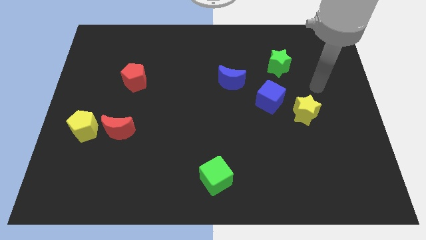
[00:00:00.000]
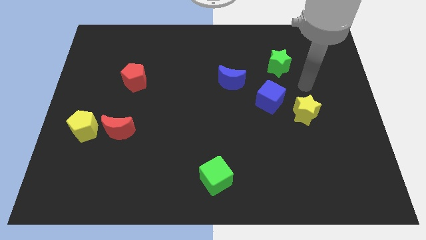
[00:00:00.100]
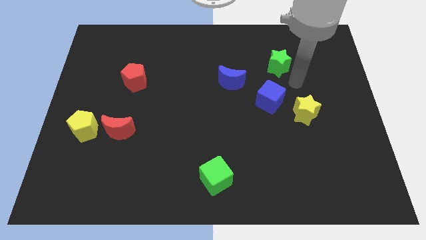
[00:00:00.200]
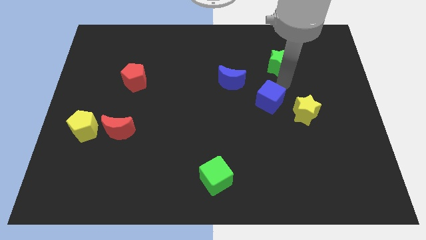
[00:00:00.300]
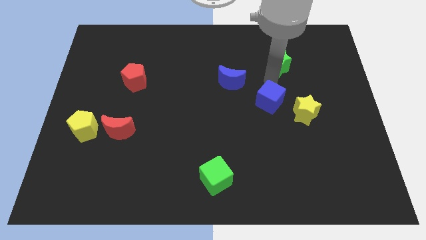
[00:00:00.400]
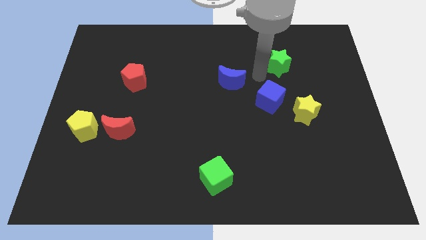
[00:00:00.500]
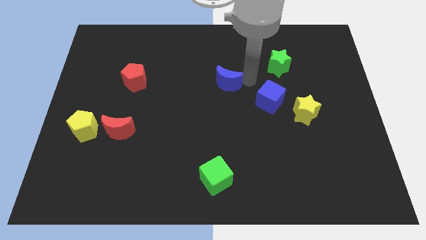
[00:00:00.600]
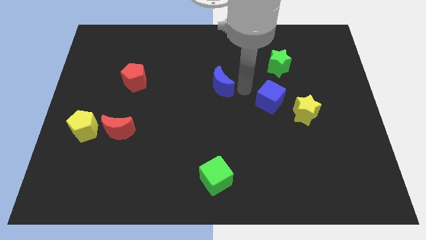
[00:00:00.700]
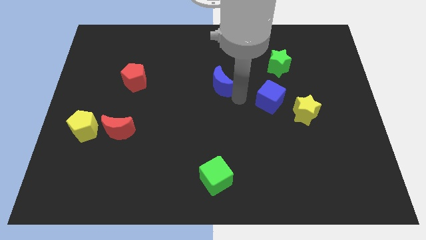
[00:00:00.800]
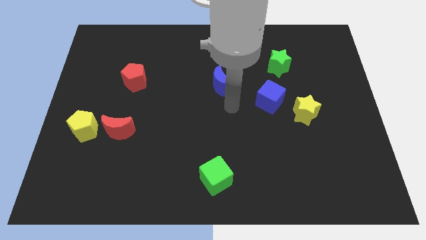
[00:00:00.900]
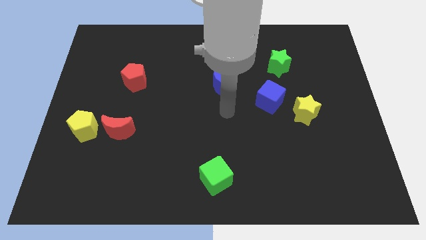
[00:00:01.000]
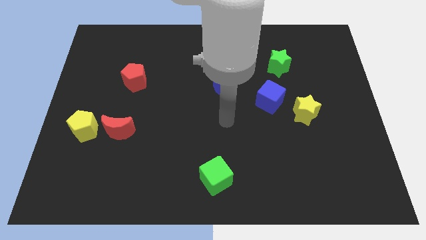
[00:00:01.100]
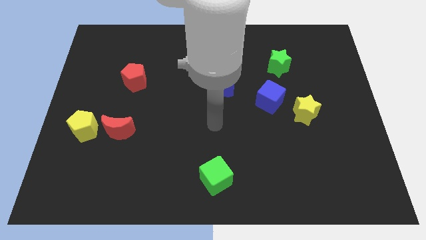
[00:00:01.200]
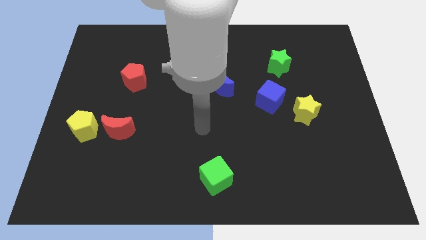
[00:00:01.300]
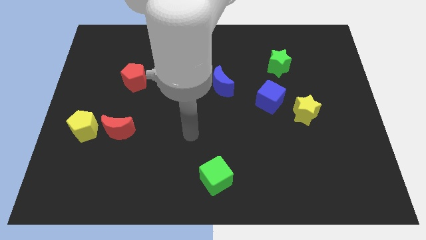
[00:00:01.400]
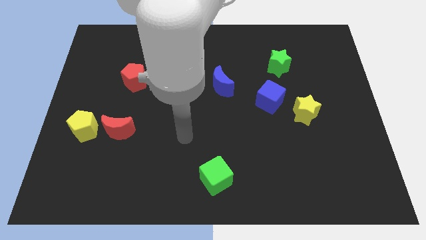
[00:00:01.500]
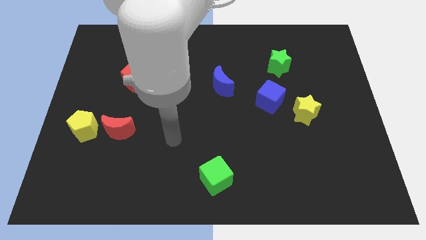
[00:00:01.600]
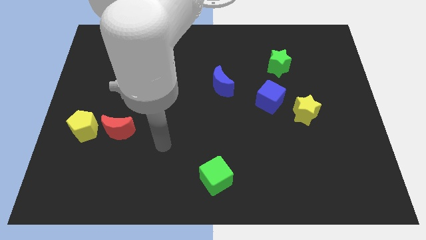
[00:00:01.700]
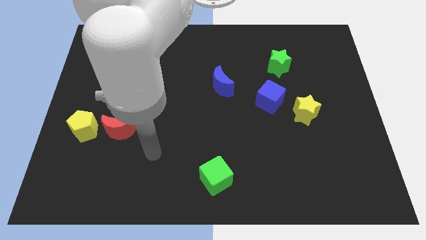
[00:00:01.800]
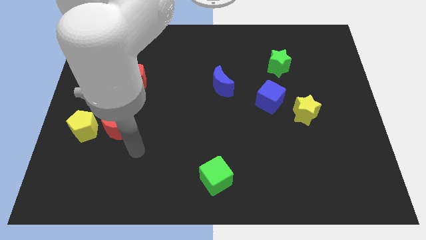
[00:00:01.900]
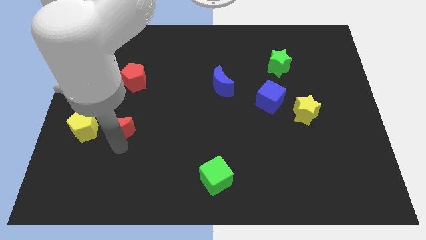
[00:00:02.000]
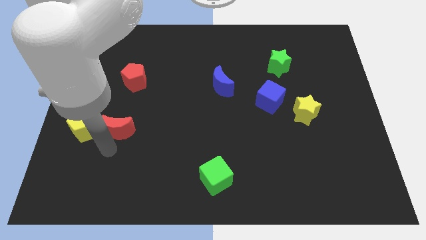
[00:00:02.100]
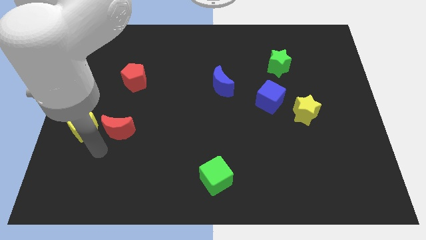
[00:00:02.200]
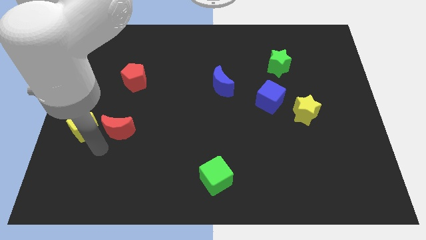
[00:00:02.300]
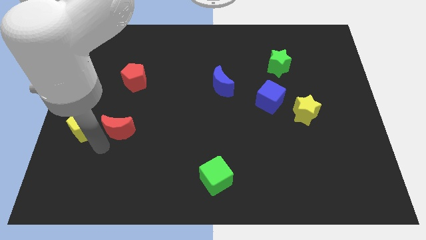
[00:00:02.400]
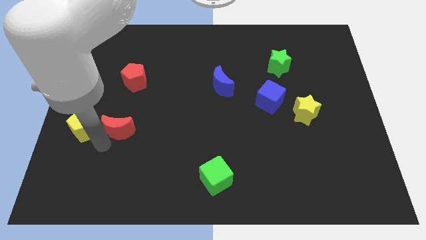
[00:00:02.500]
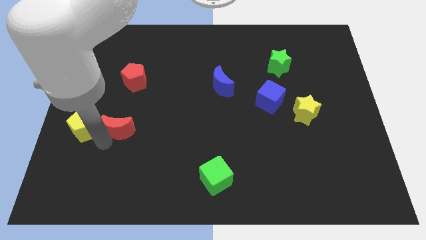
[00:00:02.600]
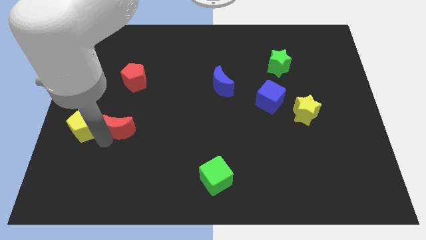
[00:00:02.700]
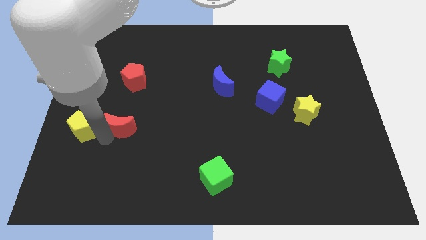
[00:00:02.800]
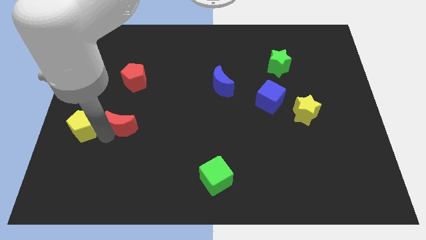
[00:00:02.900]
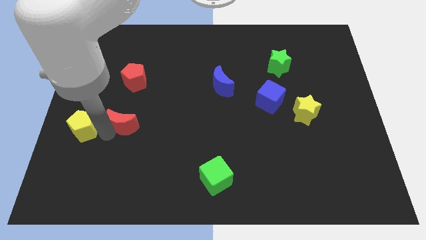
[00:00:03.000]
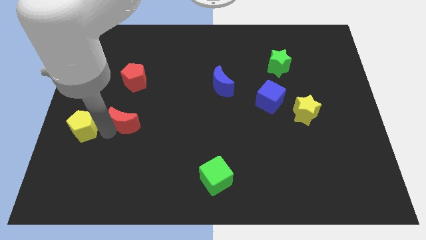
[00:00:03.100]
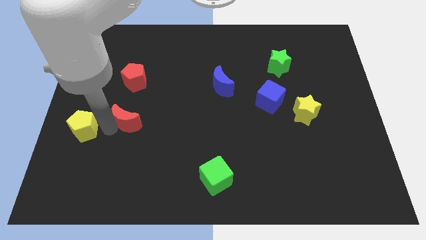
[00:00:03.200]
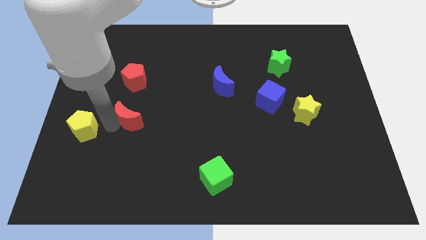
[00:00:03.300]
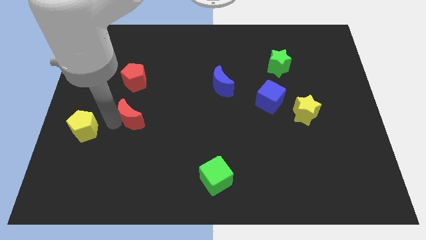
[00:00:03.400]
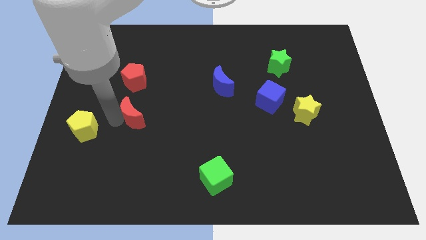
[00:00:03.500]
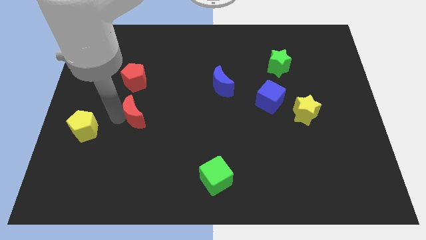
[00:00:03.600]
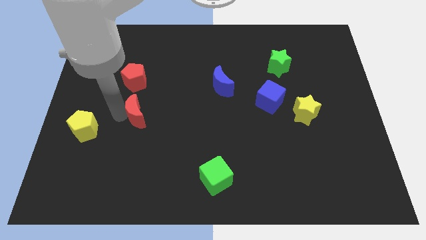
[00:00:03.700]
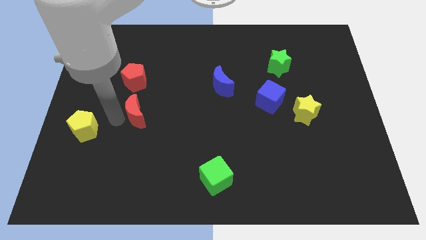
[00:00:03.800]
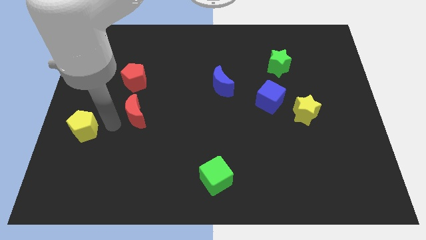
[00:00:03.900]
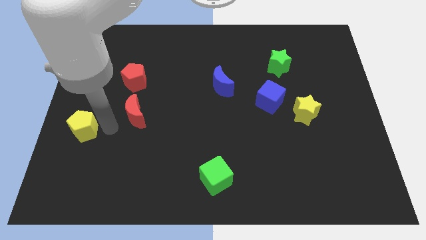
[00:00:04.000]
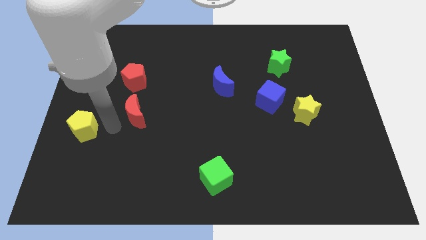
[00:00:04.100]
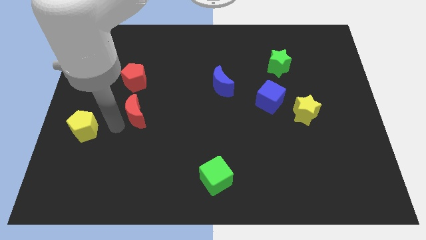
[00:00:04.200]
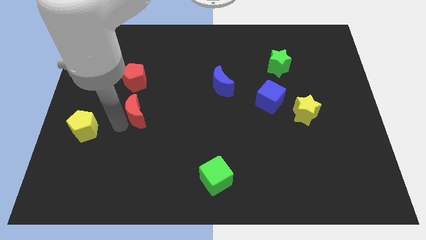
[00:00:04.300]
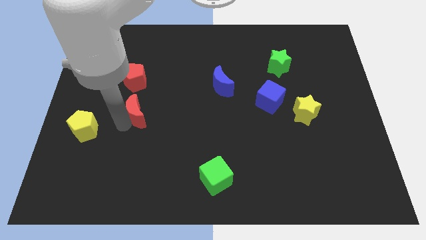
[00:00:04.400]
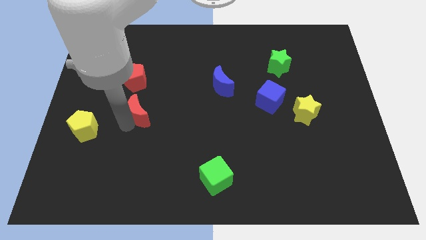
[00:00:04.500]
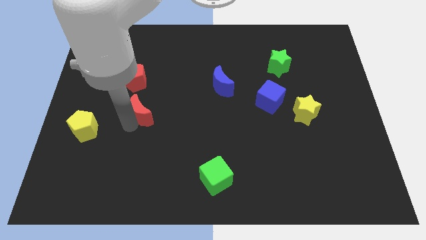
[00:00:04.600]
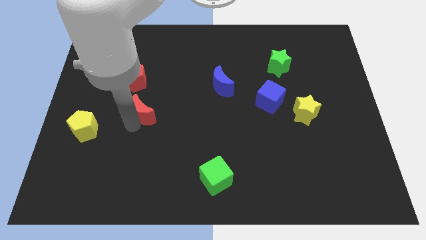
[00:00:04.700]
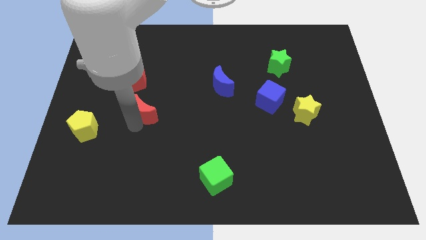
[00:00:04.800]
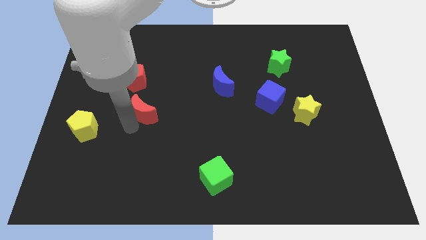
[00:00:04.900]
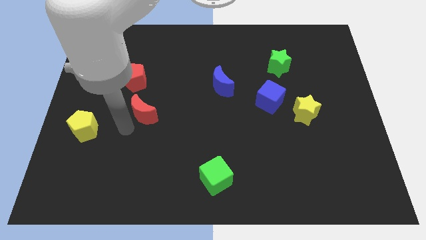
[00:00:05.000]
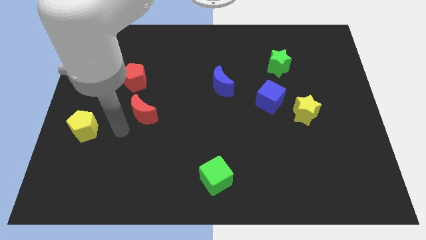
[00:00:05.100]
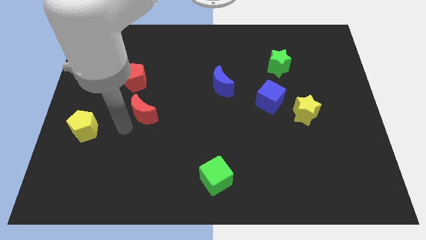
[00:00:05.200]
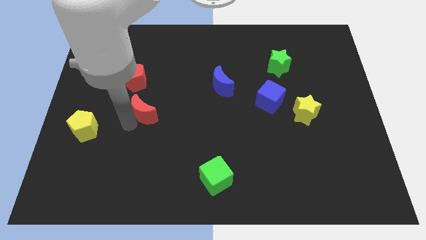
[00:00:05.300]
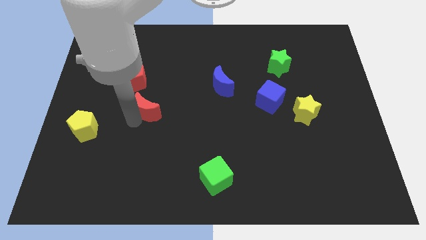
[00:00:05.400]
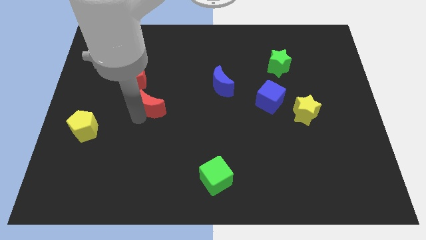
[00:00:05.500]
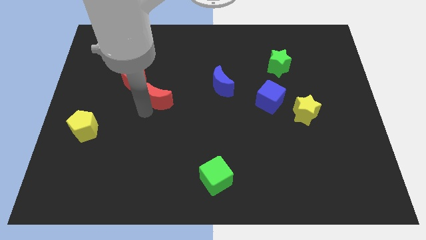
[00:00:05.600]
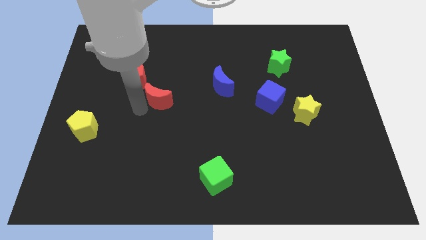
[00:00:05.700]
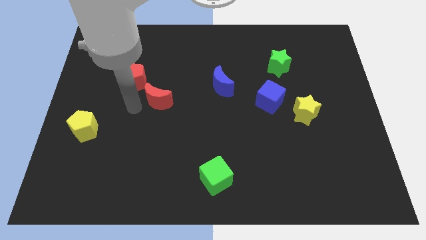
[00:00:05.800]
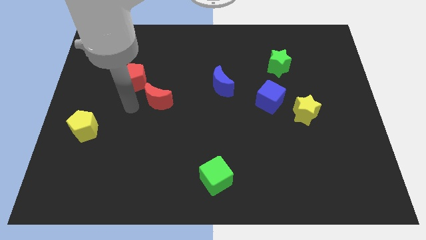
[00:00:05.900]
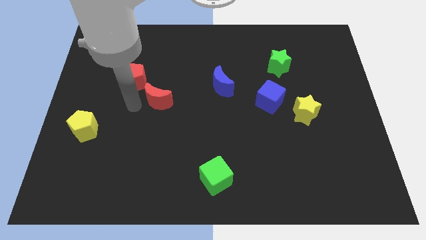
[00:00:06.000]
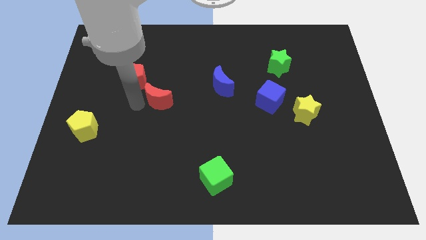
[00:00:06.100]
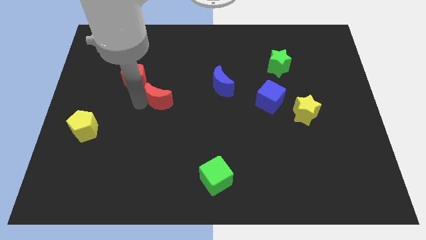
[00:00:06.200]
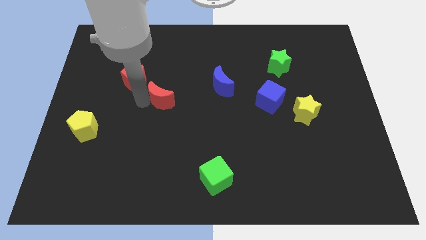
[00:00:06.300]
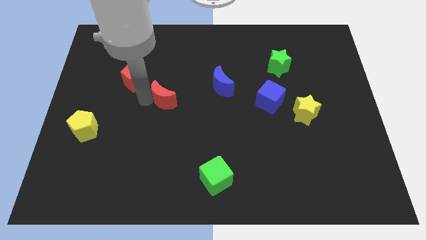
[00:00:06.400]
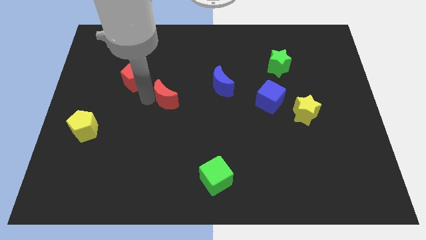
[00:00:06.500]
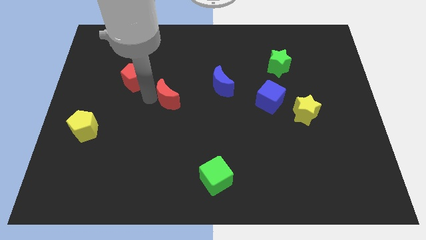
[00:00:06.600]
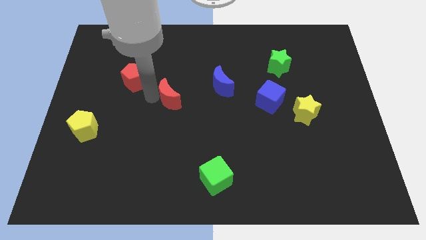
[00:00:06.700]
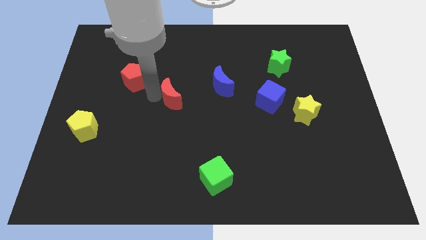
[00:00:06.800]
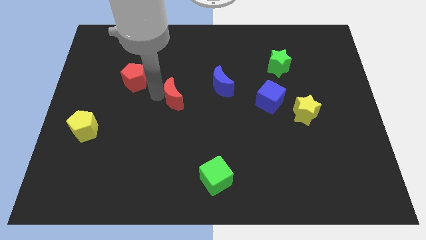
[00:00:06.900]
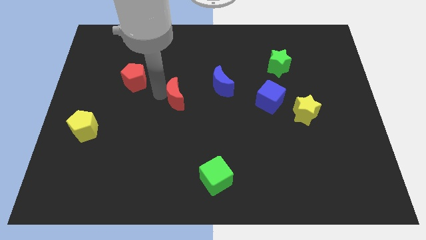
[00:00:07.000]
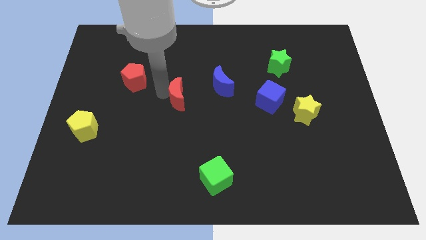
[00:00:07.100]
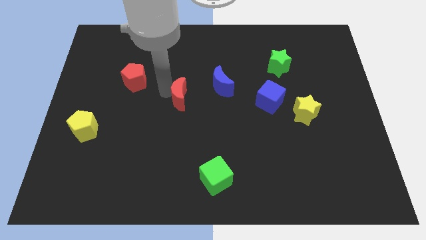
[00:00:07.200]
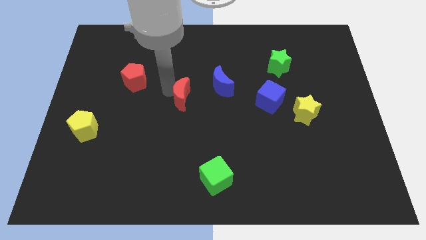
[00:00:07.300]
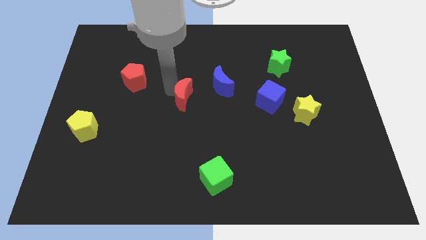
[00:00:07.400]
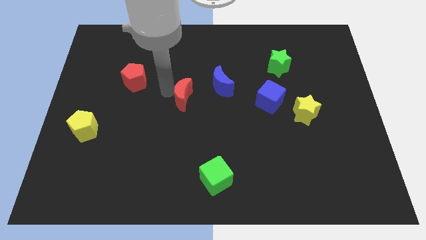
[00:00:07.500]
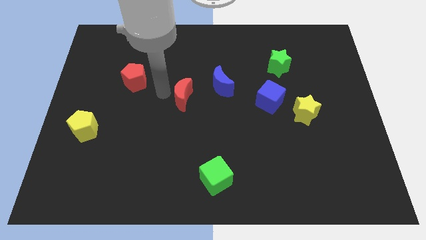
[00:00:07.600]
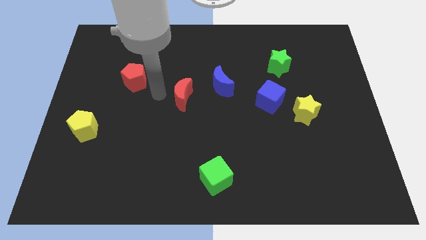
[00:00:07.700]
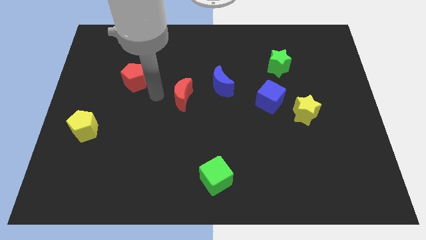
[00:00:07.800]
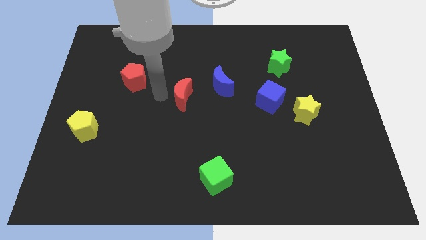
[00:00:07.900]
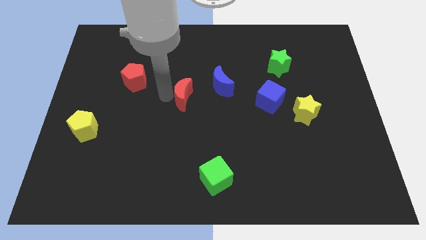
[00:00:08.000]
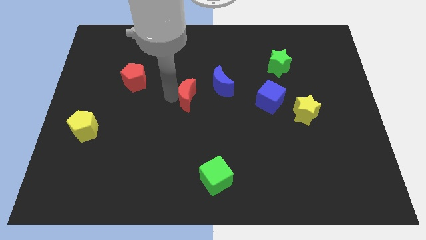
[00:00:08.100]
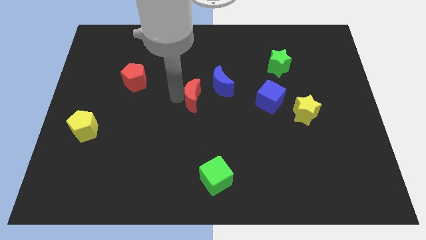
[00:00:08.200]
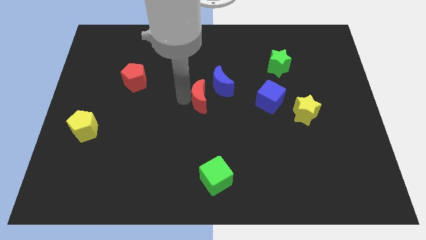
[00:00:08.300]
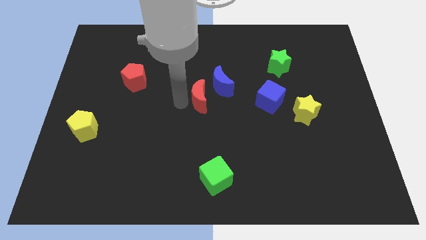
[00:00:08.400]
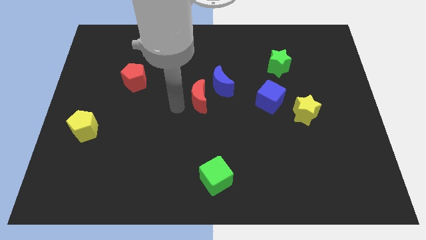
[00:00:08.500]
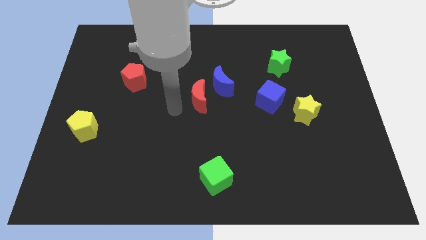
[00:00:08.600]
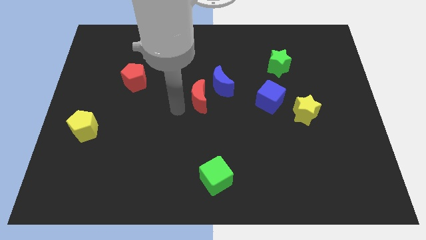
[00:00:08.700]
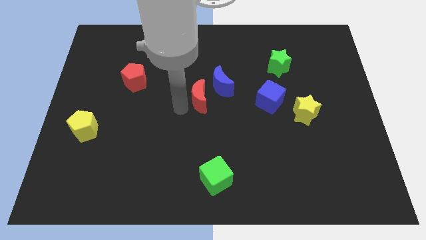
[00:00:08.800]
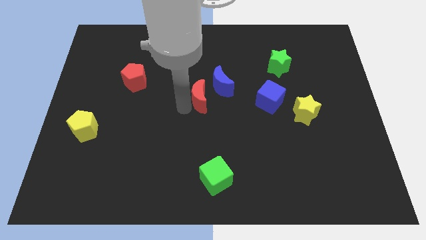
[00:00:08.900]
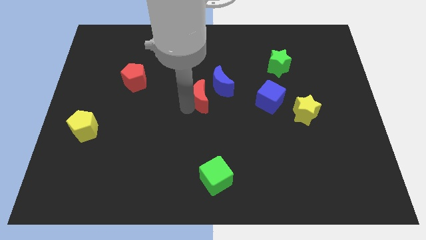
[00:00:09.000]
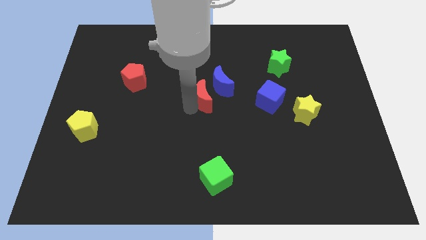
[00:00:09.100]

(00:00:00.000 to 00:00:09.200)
put the red moon next to the blue moon
